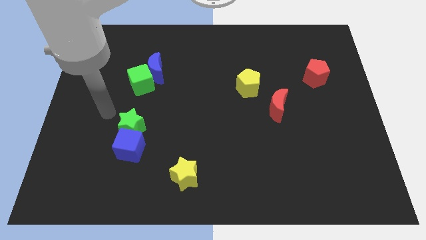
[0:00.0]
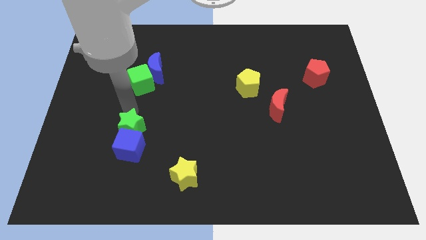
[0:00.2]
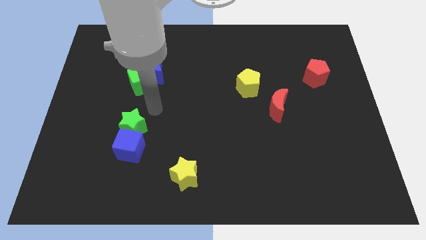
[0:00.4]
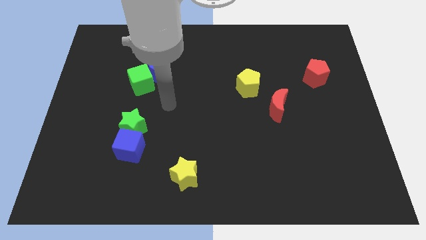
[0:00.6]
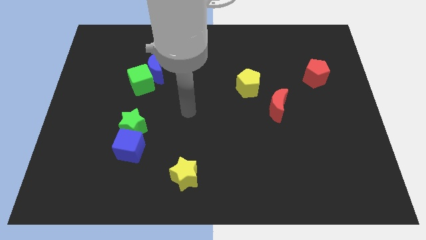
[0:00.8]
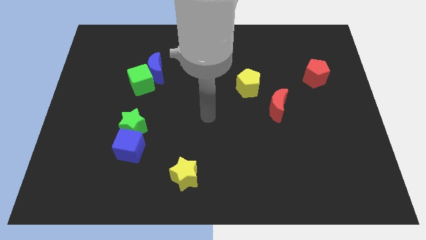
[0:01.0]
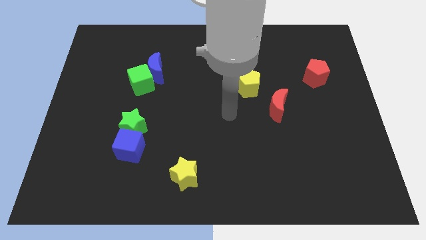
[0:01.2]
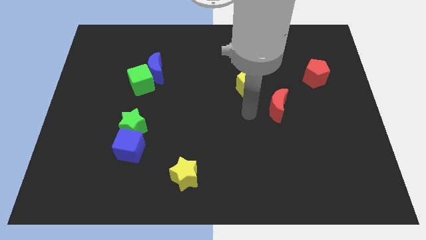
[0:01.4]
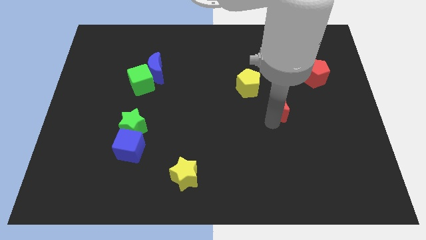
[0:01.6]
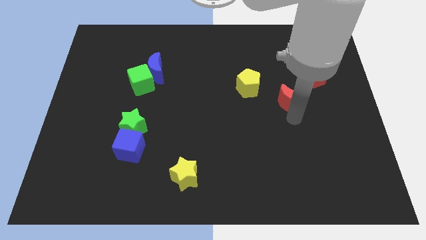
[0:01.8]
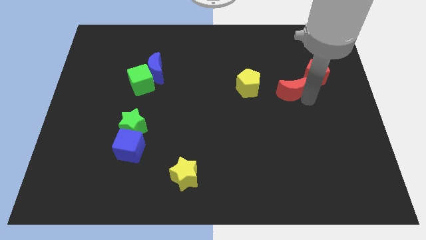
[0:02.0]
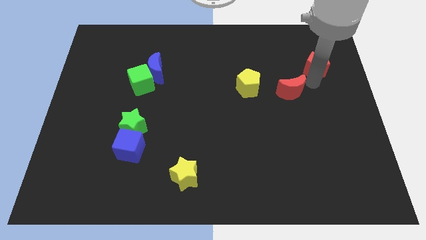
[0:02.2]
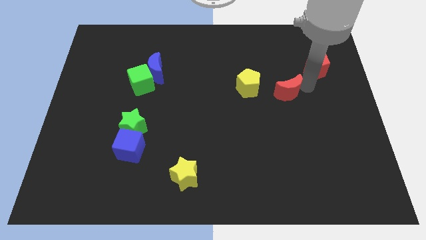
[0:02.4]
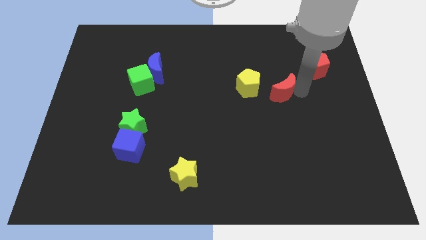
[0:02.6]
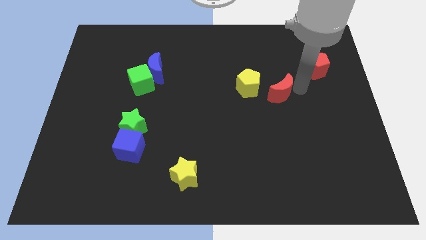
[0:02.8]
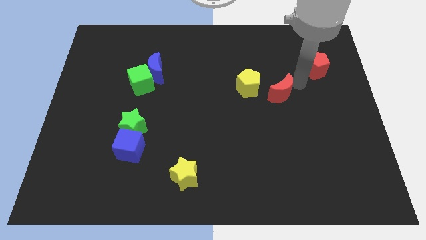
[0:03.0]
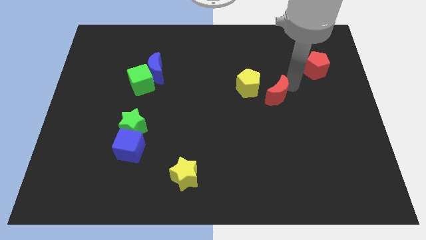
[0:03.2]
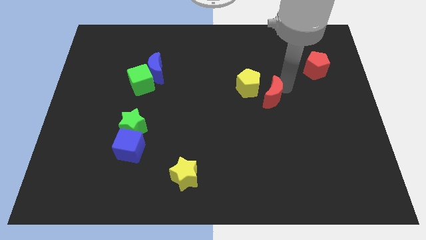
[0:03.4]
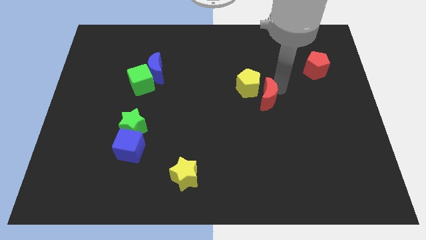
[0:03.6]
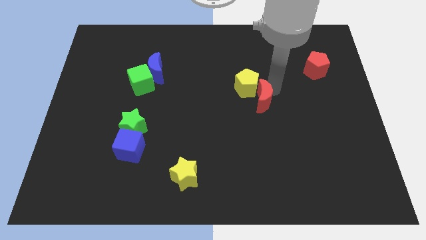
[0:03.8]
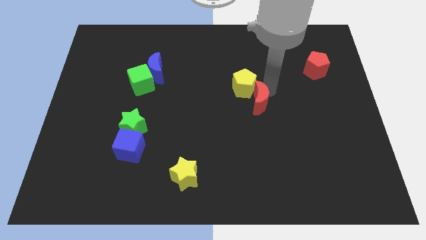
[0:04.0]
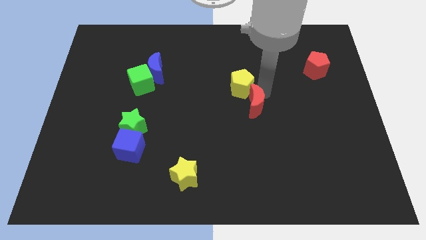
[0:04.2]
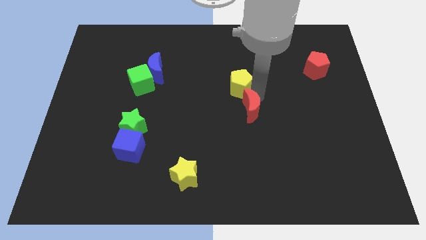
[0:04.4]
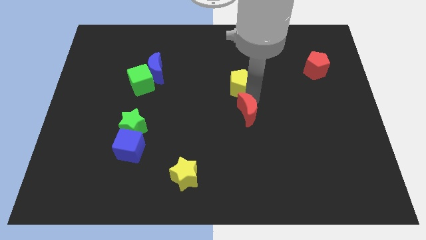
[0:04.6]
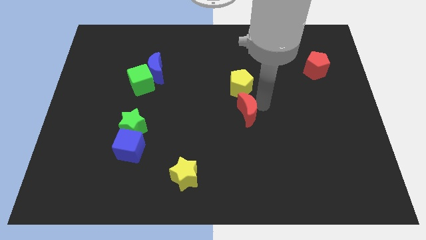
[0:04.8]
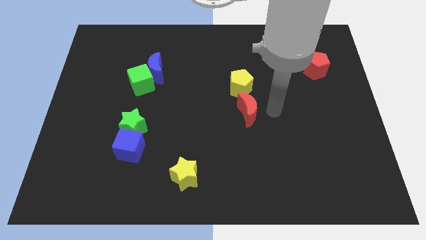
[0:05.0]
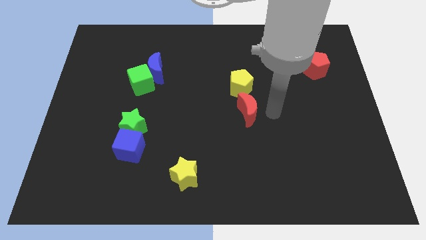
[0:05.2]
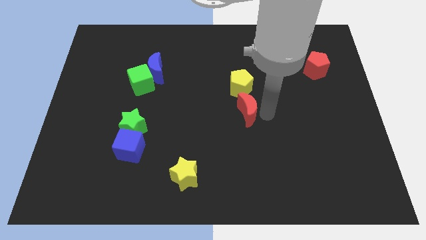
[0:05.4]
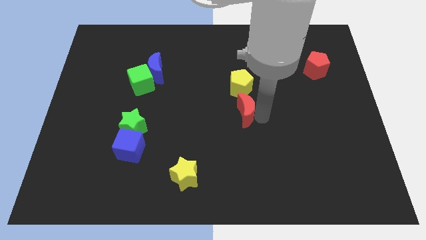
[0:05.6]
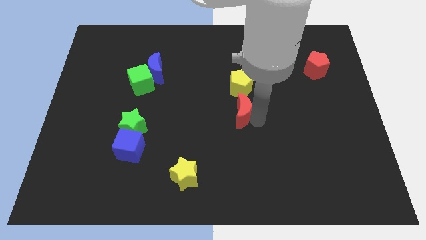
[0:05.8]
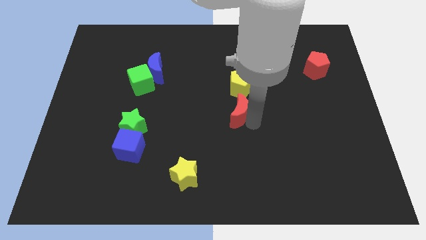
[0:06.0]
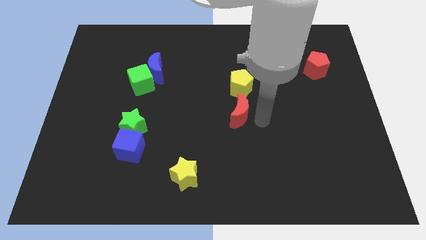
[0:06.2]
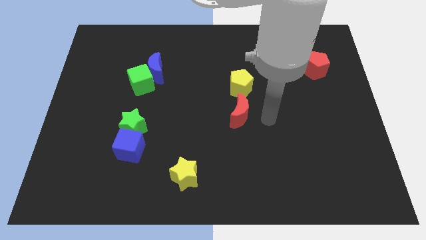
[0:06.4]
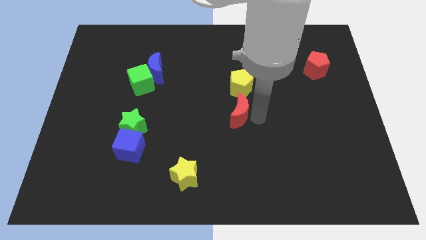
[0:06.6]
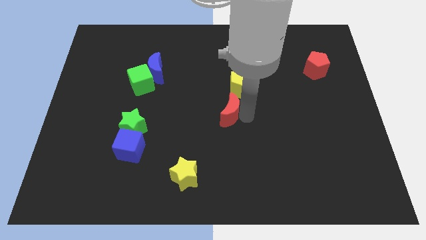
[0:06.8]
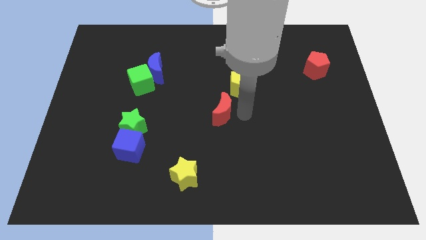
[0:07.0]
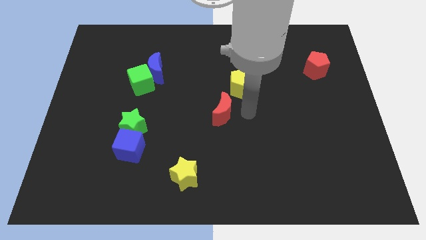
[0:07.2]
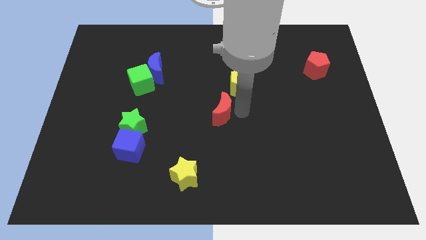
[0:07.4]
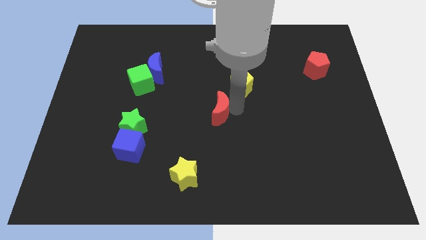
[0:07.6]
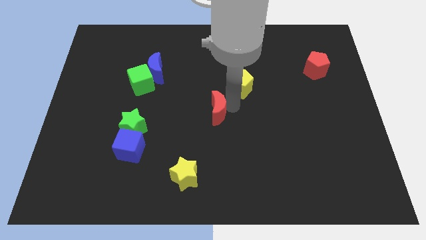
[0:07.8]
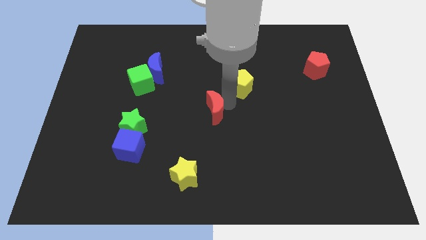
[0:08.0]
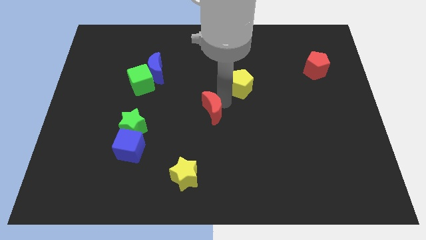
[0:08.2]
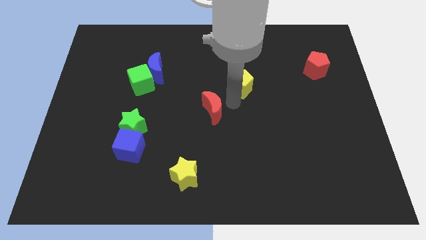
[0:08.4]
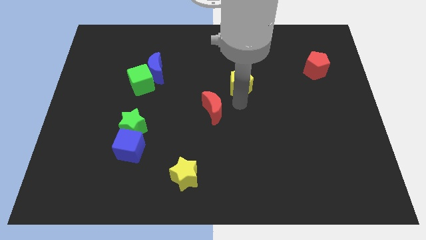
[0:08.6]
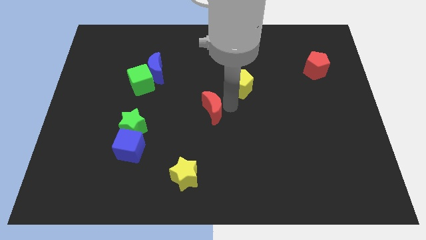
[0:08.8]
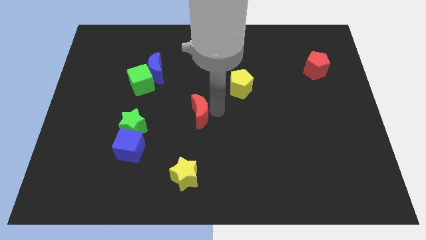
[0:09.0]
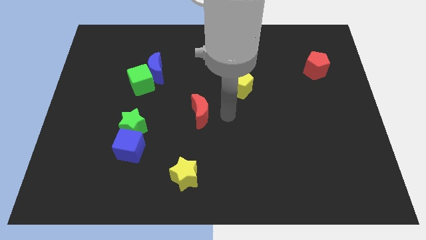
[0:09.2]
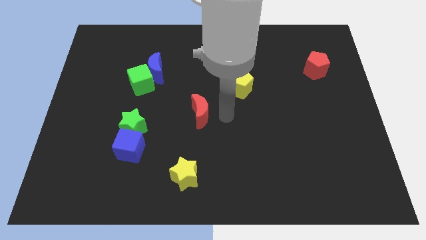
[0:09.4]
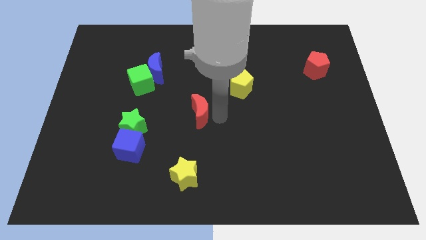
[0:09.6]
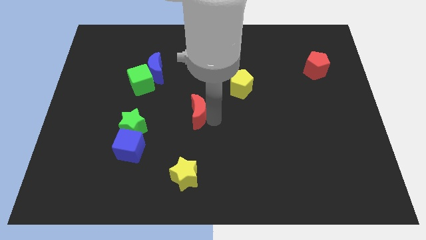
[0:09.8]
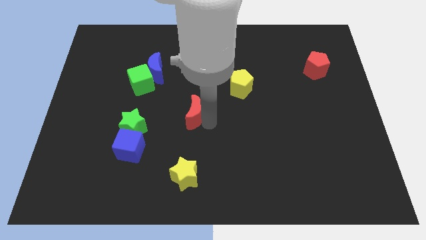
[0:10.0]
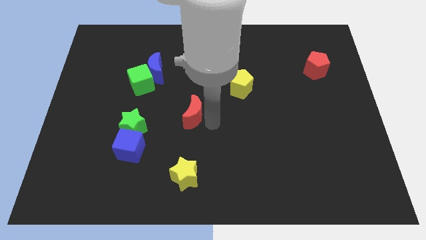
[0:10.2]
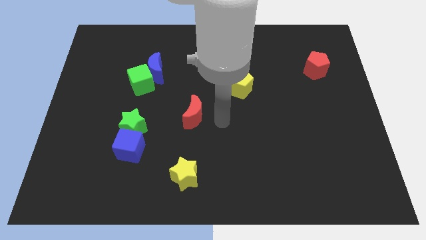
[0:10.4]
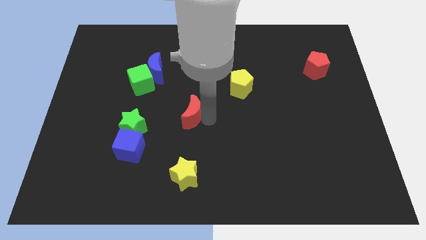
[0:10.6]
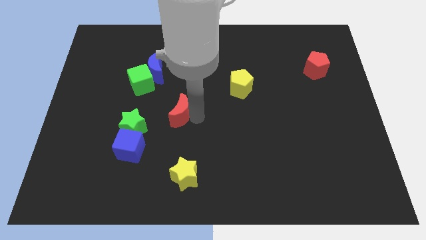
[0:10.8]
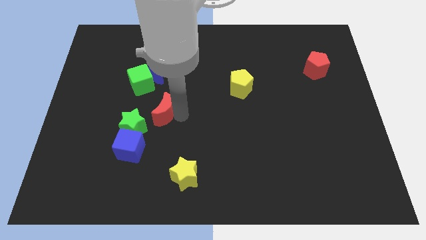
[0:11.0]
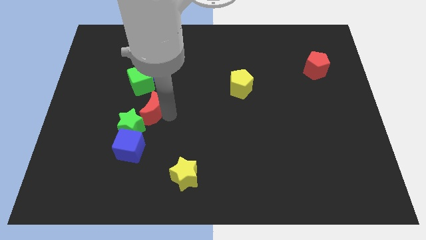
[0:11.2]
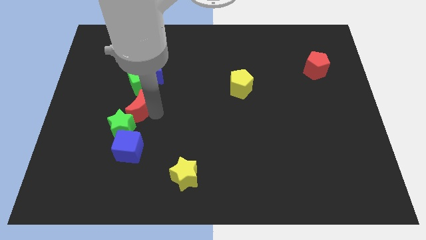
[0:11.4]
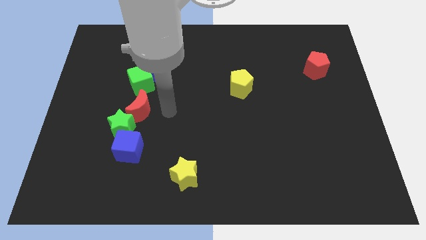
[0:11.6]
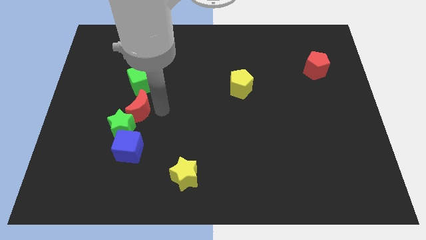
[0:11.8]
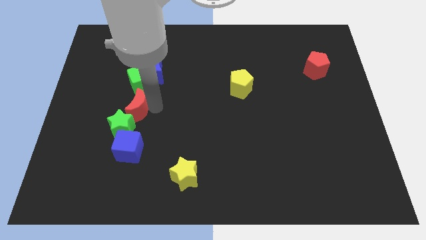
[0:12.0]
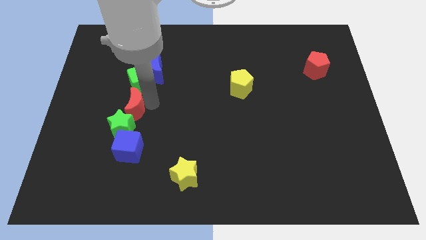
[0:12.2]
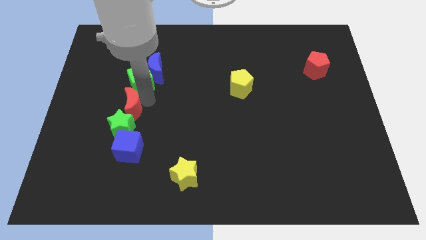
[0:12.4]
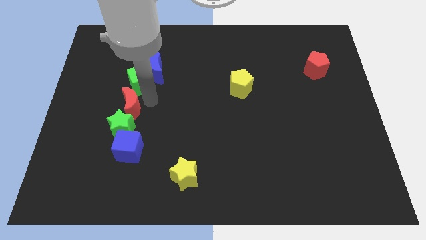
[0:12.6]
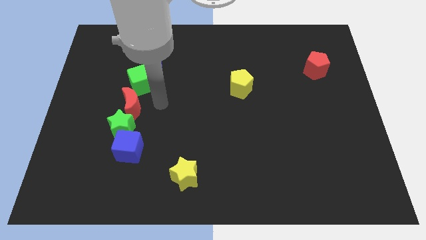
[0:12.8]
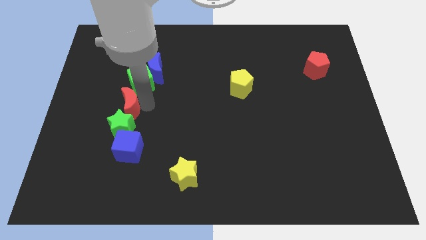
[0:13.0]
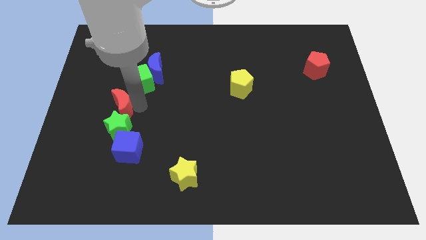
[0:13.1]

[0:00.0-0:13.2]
move the red moon diagonally up and to the left of the green star

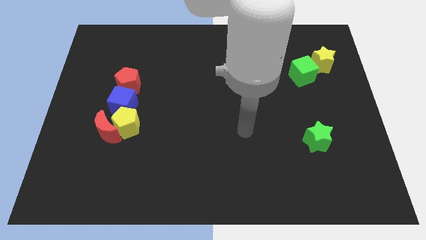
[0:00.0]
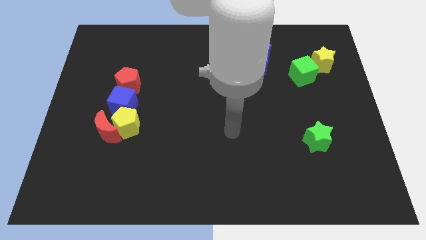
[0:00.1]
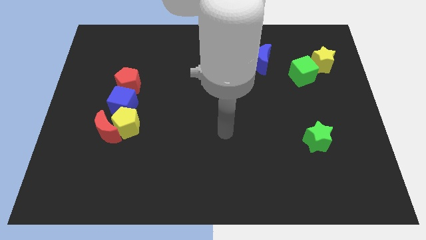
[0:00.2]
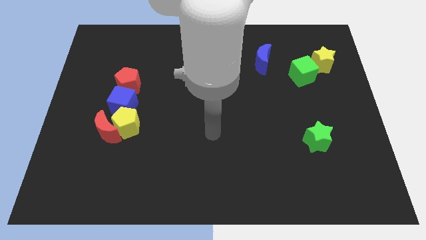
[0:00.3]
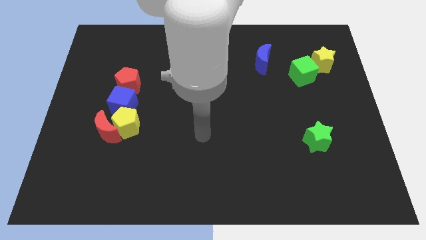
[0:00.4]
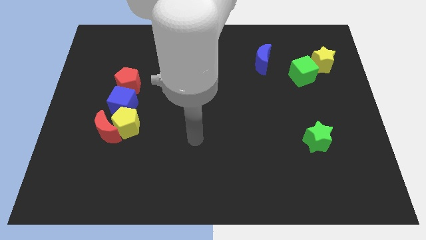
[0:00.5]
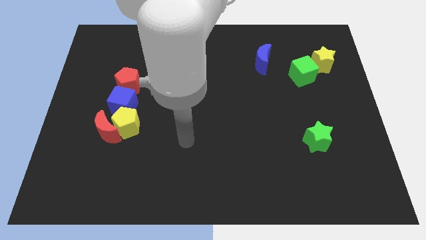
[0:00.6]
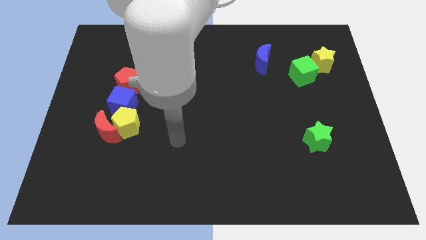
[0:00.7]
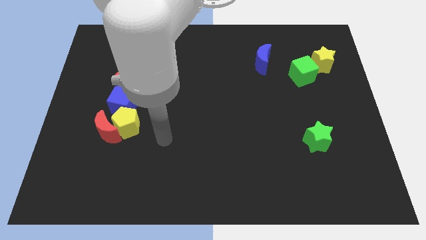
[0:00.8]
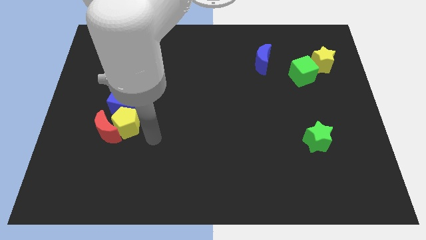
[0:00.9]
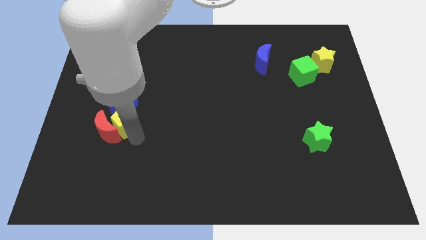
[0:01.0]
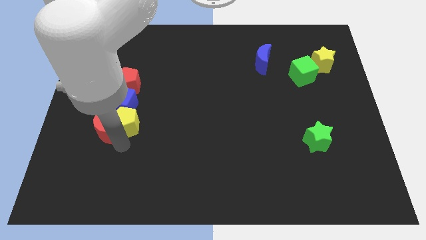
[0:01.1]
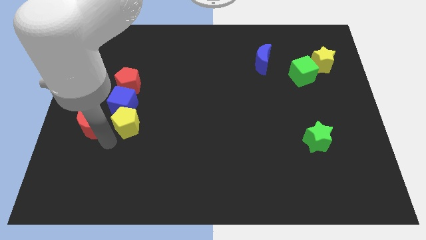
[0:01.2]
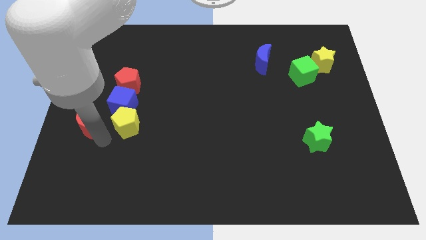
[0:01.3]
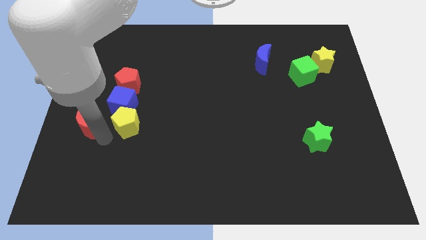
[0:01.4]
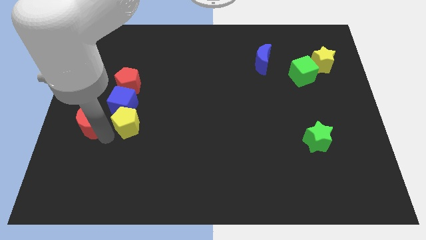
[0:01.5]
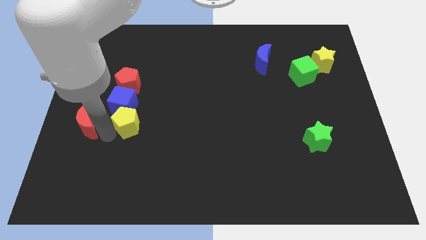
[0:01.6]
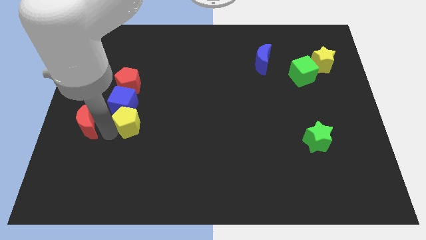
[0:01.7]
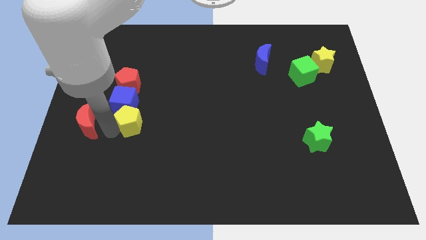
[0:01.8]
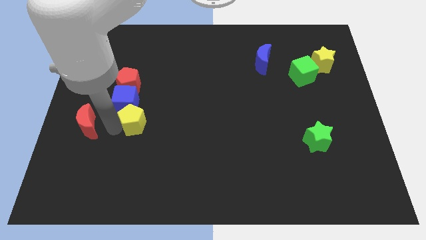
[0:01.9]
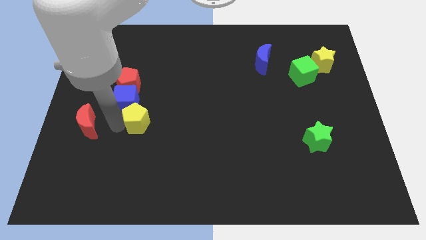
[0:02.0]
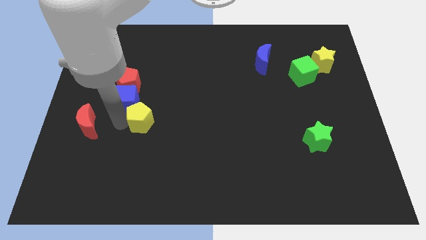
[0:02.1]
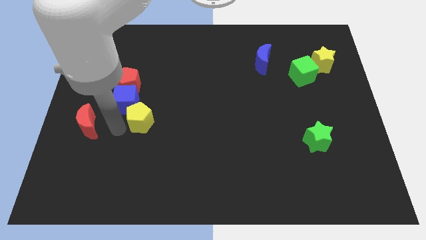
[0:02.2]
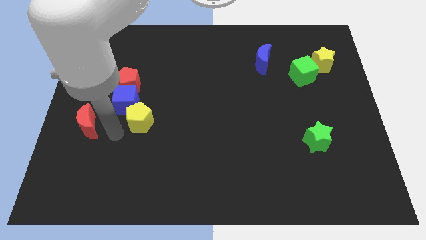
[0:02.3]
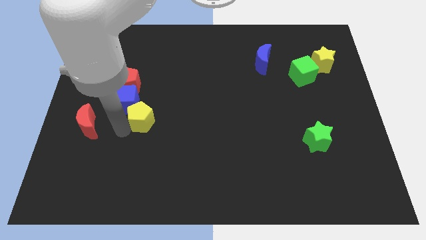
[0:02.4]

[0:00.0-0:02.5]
slide the yellow pentagon just right of the blue cube
